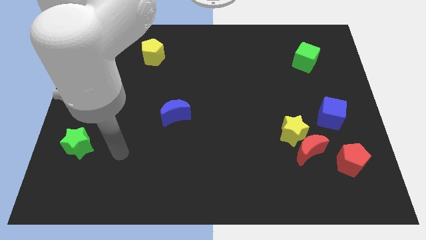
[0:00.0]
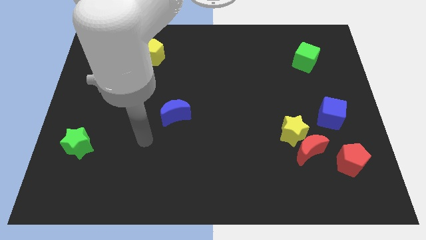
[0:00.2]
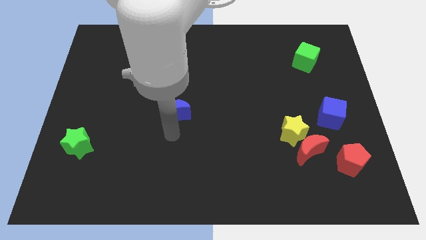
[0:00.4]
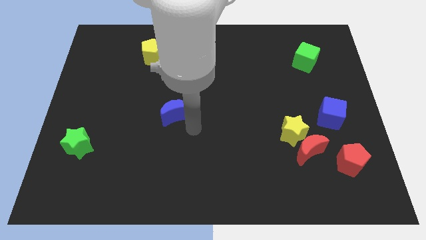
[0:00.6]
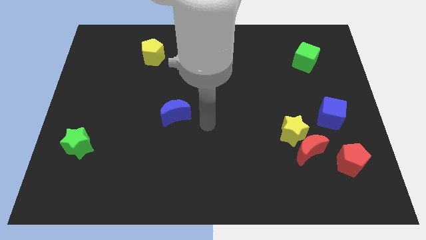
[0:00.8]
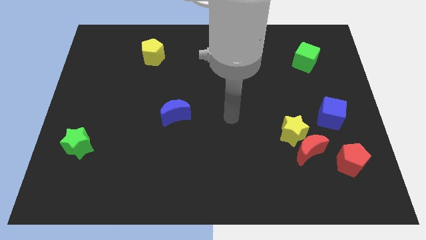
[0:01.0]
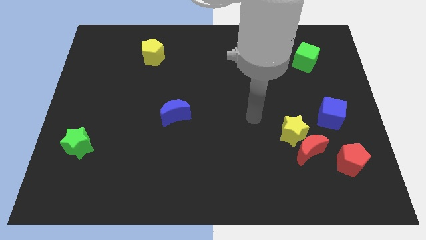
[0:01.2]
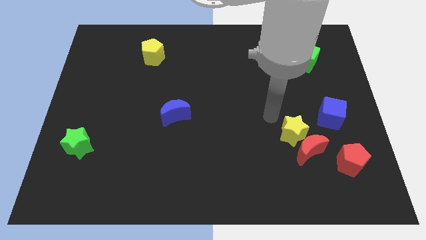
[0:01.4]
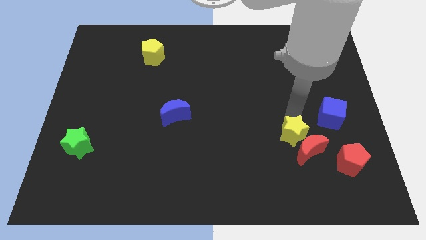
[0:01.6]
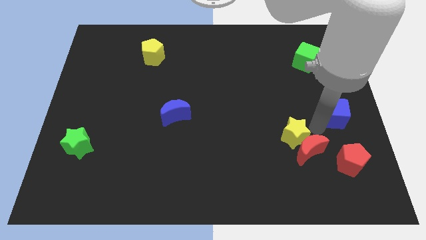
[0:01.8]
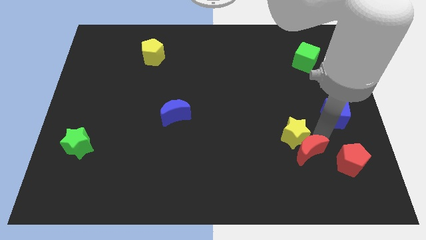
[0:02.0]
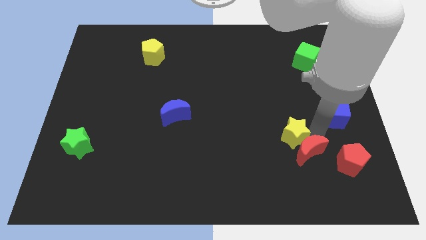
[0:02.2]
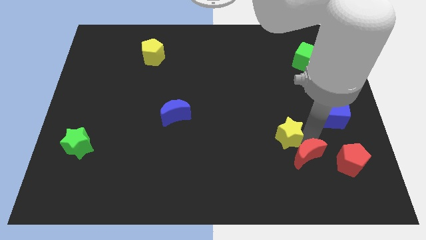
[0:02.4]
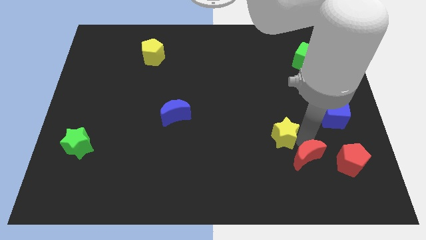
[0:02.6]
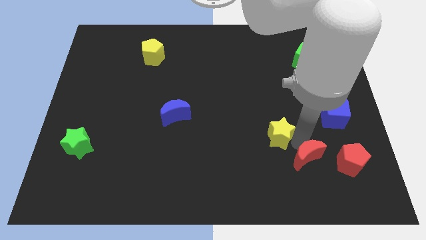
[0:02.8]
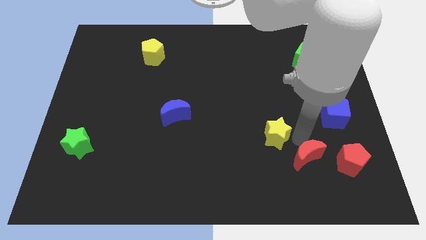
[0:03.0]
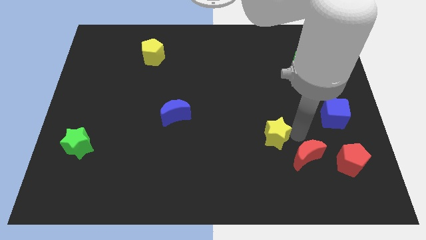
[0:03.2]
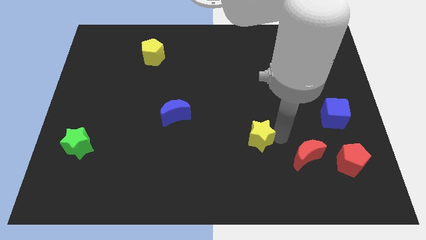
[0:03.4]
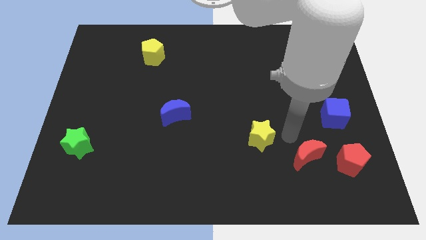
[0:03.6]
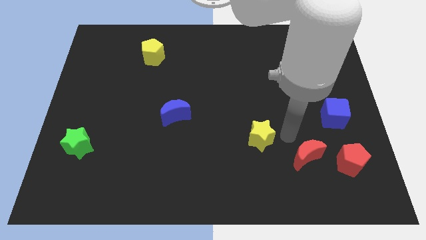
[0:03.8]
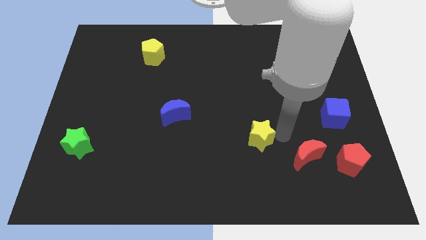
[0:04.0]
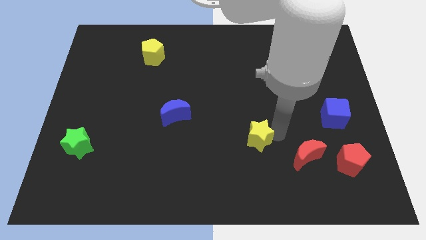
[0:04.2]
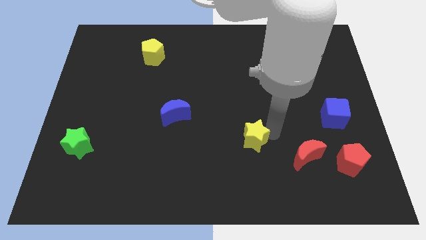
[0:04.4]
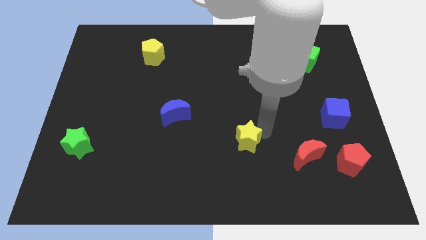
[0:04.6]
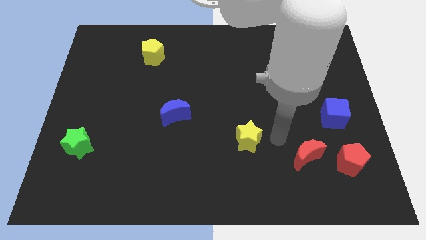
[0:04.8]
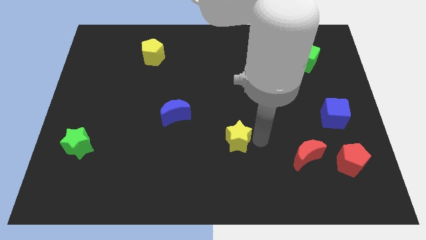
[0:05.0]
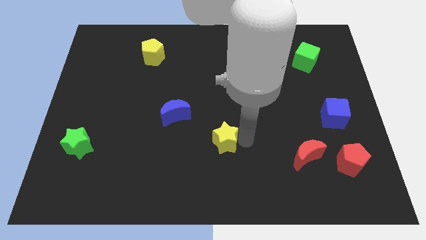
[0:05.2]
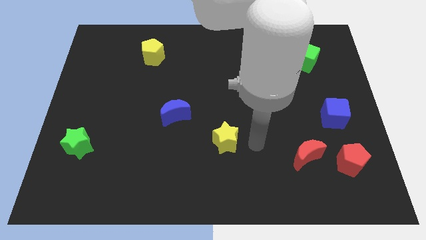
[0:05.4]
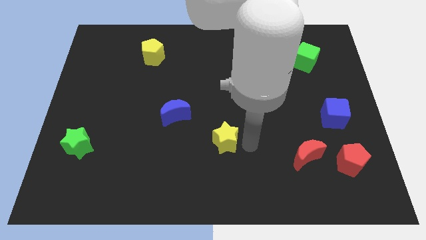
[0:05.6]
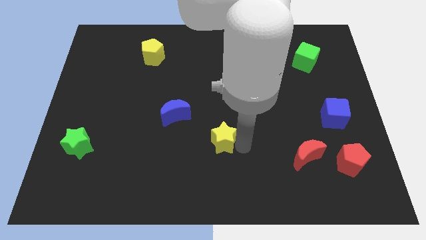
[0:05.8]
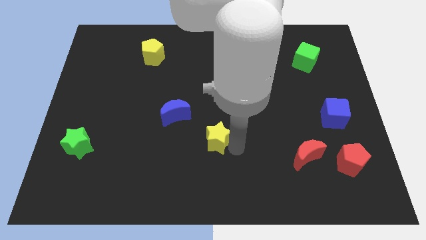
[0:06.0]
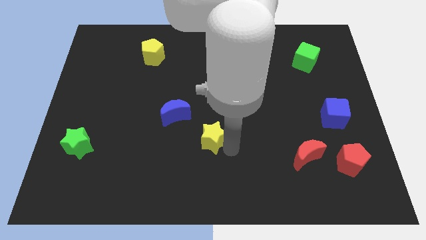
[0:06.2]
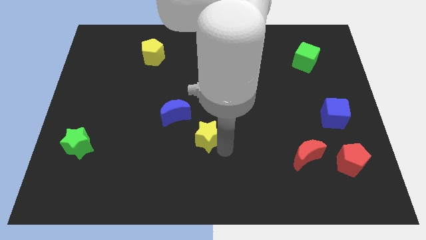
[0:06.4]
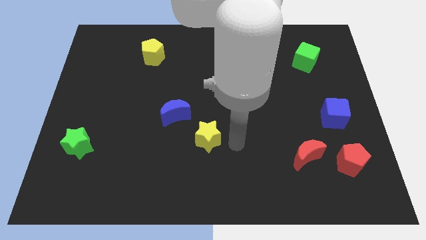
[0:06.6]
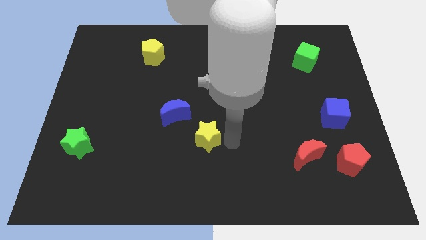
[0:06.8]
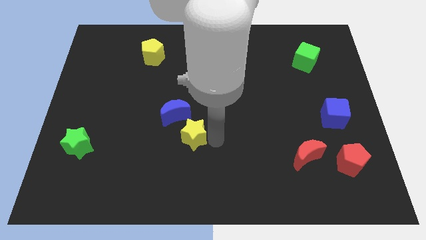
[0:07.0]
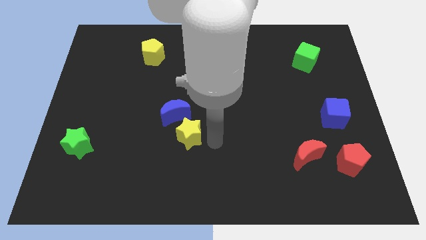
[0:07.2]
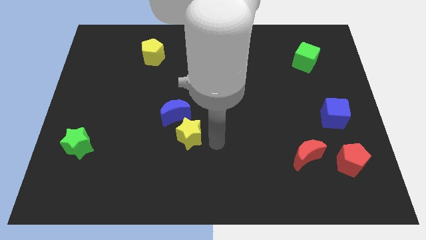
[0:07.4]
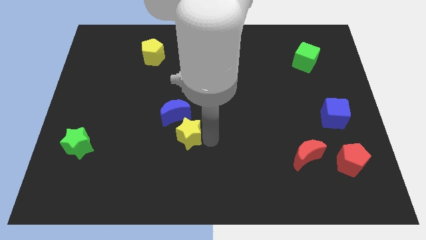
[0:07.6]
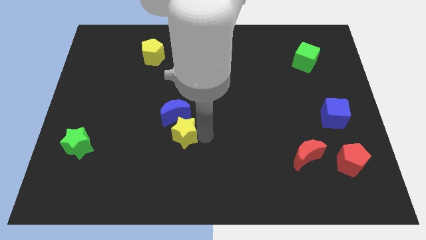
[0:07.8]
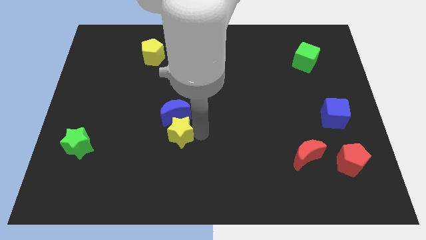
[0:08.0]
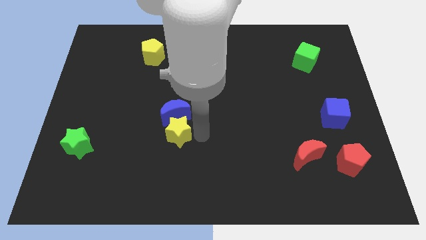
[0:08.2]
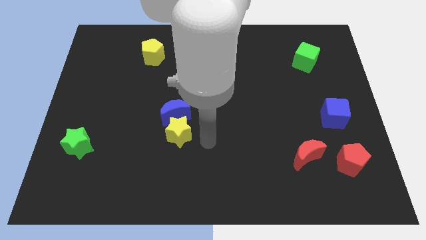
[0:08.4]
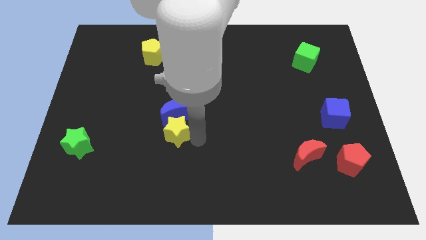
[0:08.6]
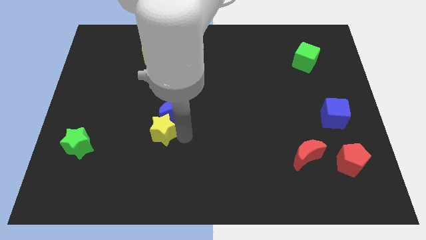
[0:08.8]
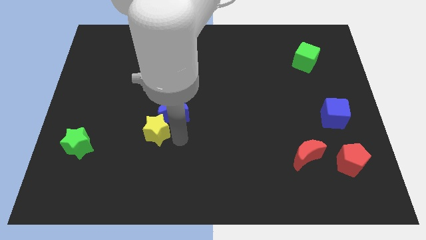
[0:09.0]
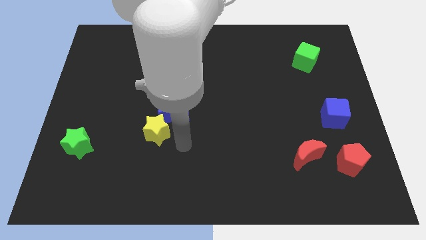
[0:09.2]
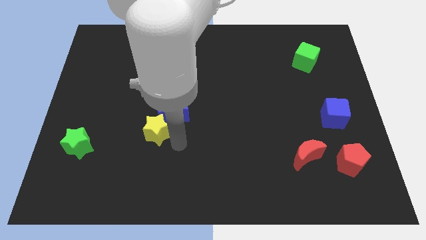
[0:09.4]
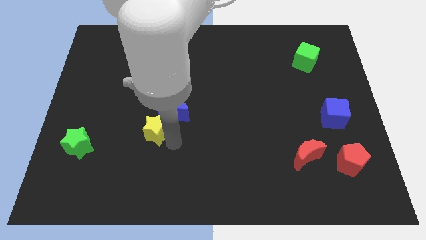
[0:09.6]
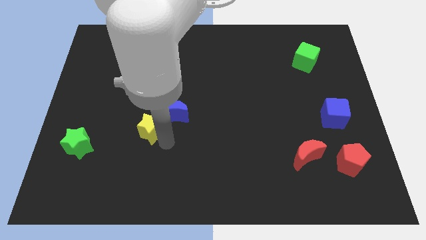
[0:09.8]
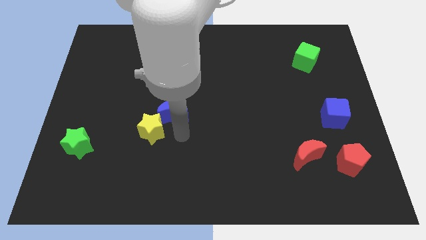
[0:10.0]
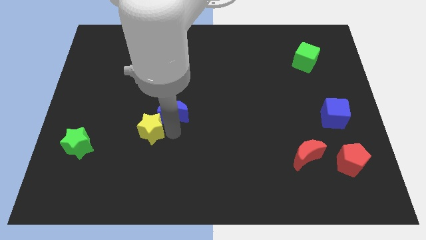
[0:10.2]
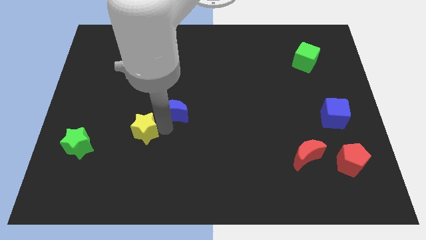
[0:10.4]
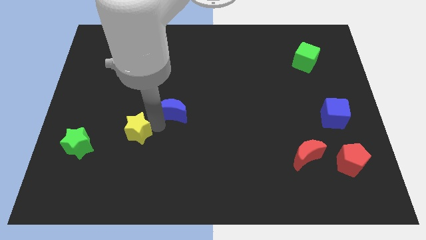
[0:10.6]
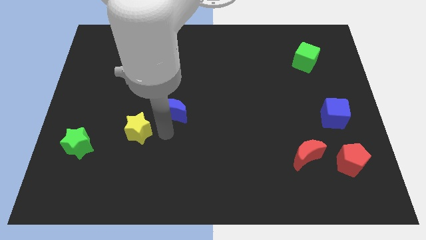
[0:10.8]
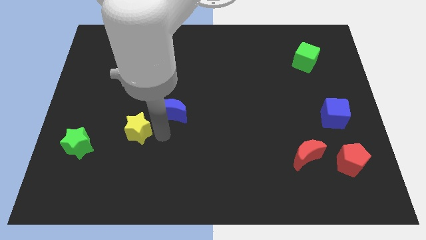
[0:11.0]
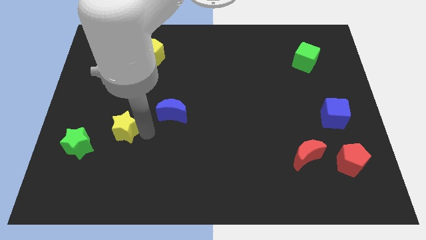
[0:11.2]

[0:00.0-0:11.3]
push the yellow star diagonally up and to the right of the green star

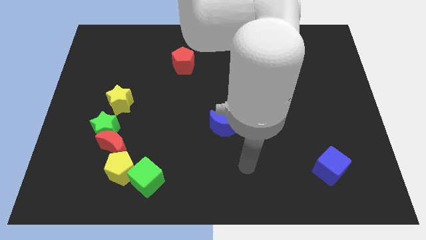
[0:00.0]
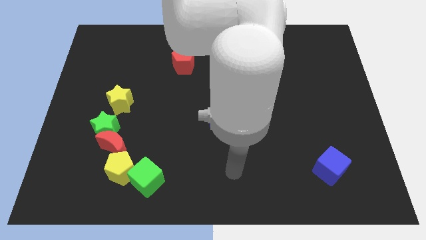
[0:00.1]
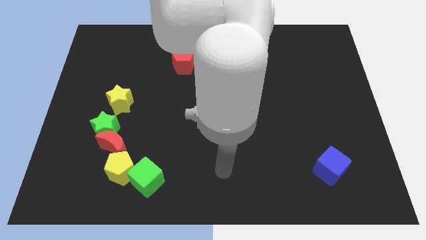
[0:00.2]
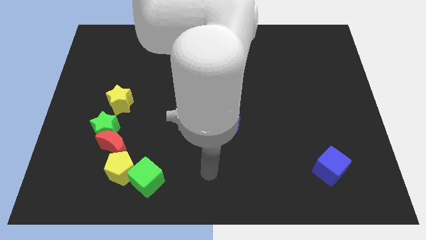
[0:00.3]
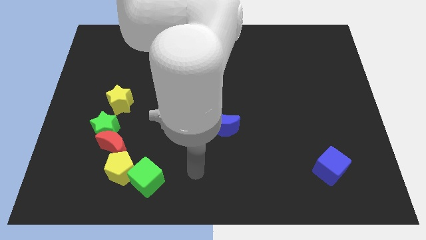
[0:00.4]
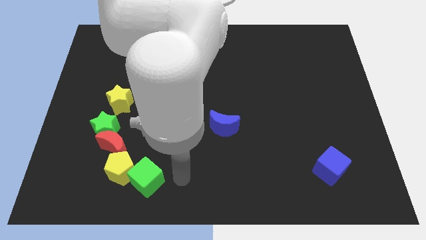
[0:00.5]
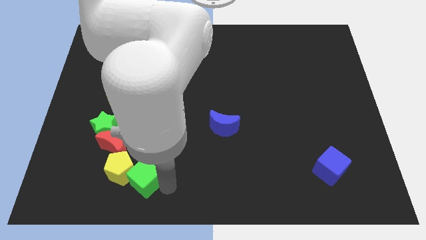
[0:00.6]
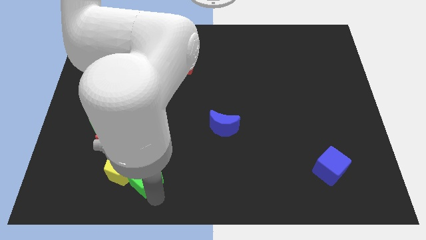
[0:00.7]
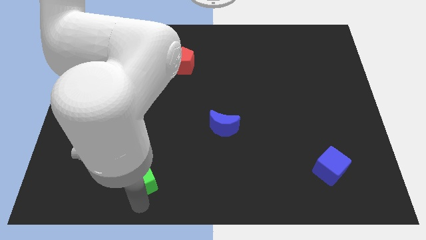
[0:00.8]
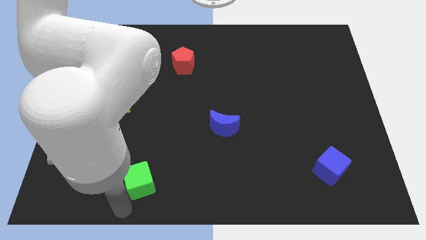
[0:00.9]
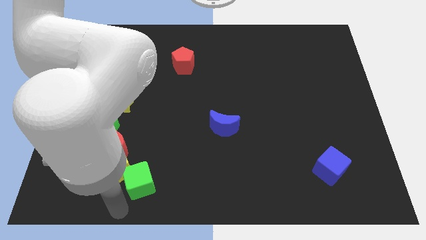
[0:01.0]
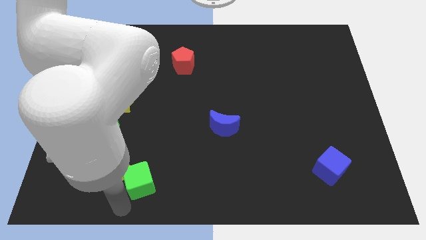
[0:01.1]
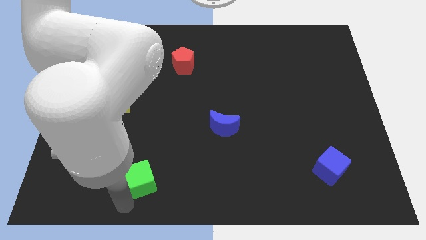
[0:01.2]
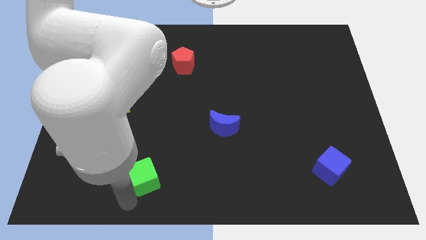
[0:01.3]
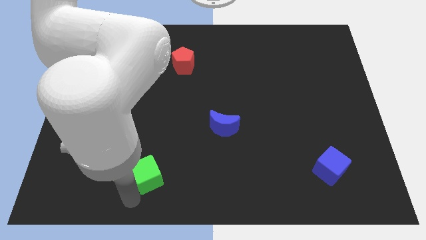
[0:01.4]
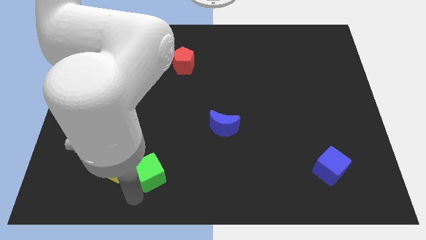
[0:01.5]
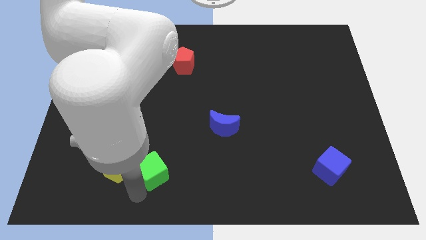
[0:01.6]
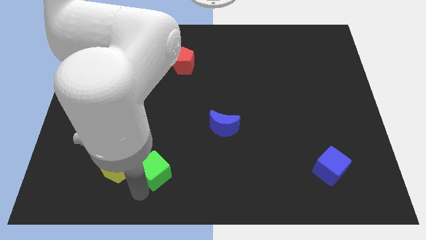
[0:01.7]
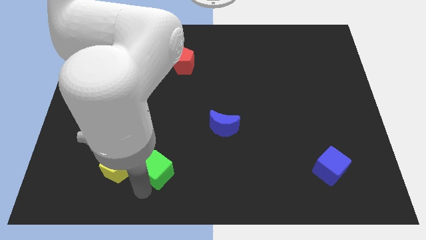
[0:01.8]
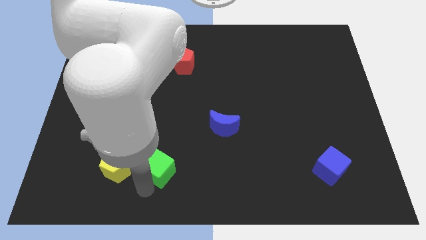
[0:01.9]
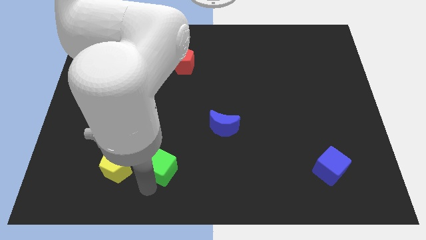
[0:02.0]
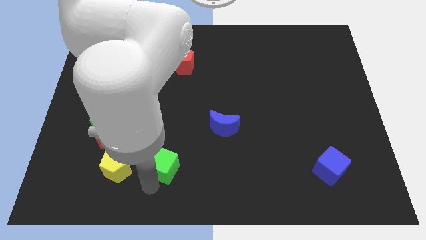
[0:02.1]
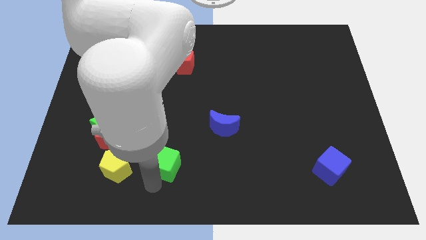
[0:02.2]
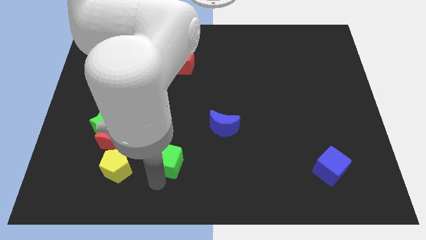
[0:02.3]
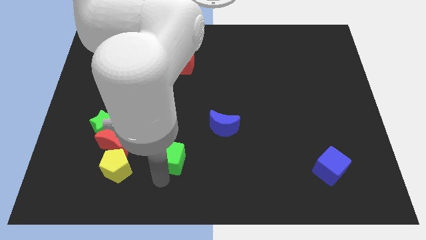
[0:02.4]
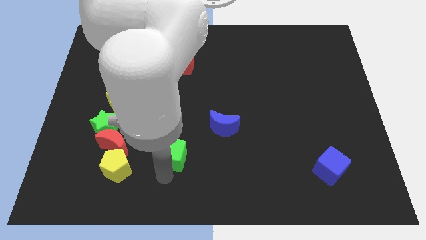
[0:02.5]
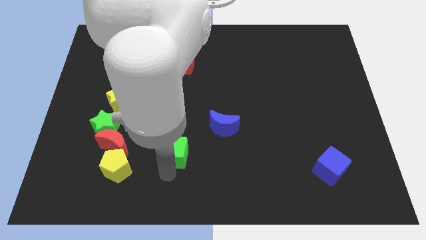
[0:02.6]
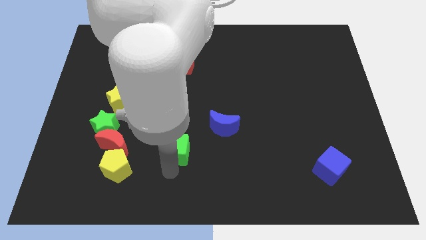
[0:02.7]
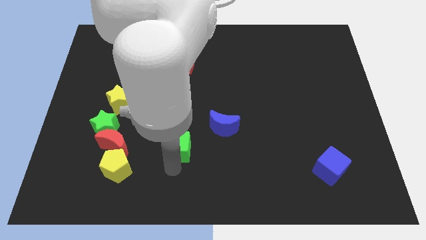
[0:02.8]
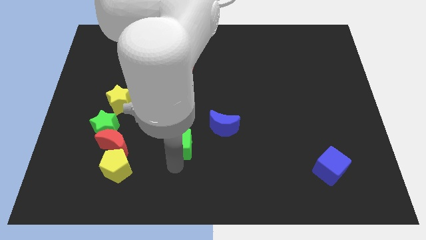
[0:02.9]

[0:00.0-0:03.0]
push the green cube to the left side of the blue moon
